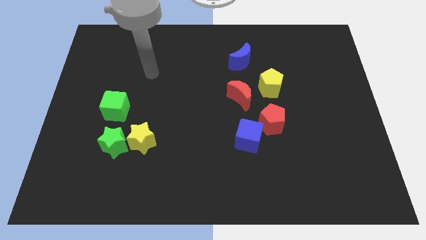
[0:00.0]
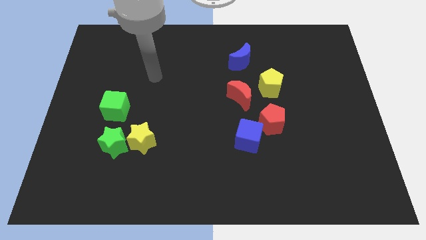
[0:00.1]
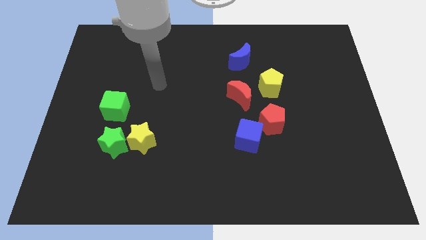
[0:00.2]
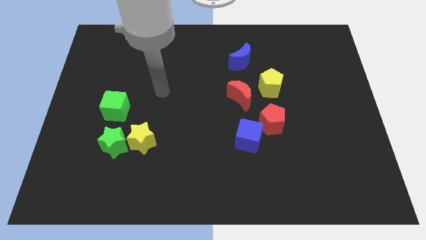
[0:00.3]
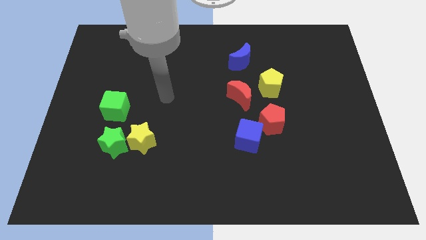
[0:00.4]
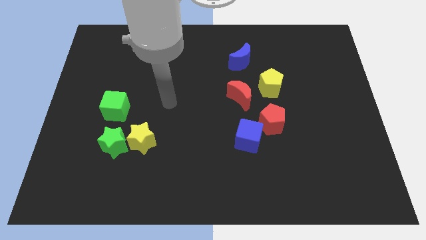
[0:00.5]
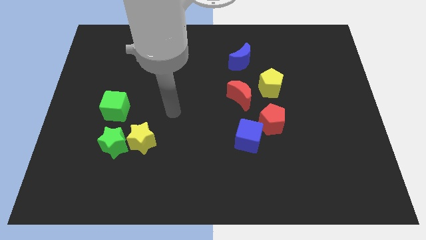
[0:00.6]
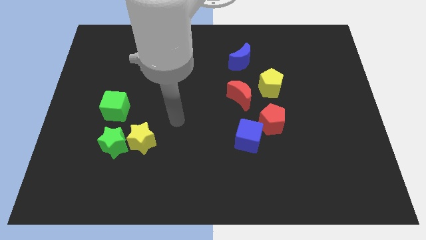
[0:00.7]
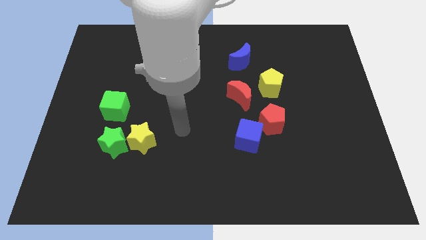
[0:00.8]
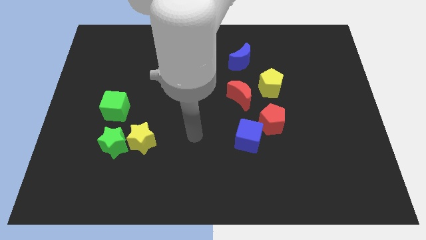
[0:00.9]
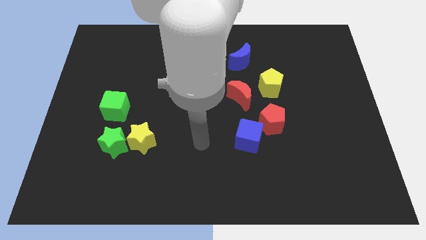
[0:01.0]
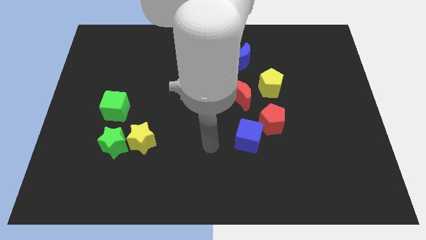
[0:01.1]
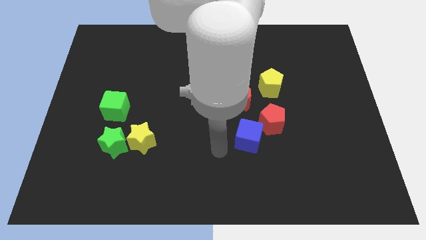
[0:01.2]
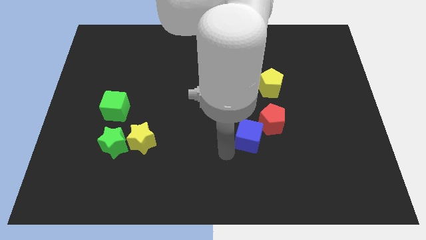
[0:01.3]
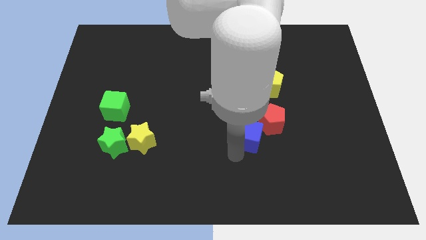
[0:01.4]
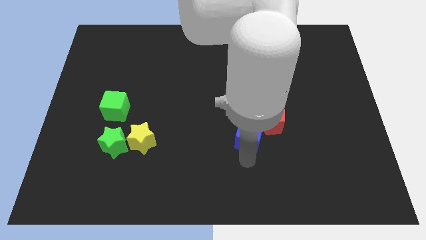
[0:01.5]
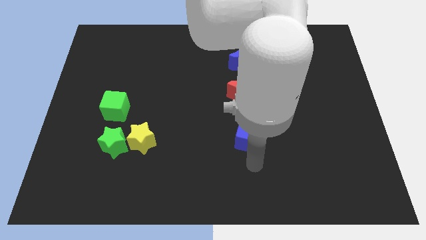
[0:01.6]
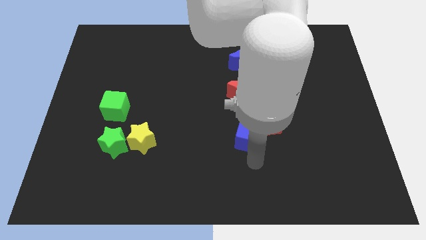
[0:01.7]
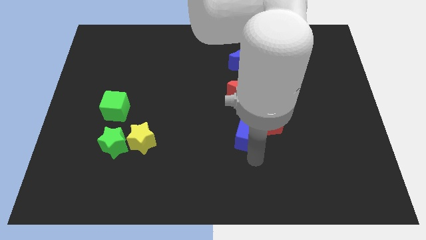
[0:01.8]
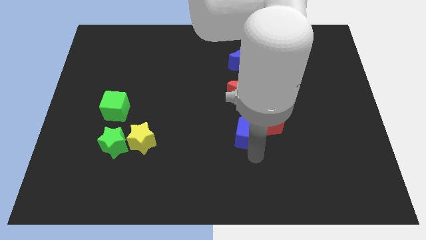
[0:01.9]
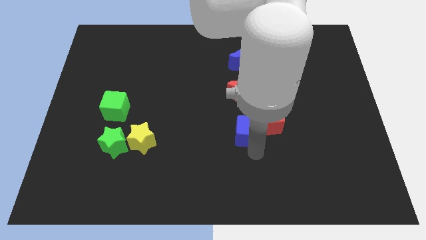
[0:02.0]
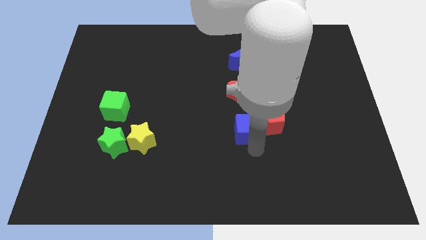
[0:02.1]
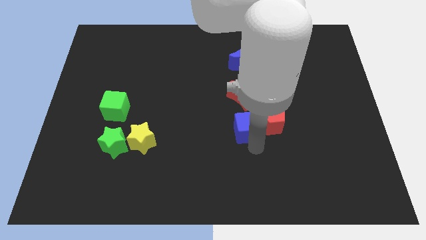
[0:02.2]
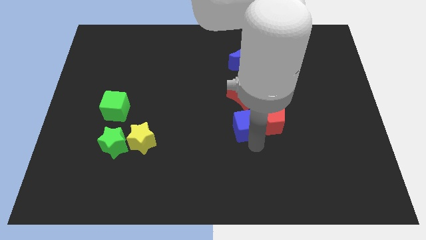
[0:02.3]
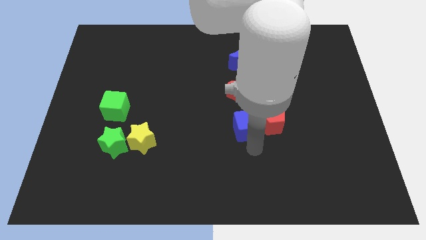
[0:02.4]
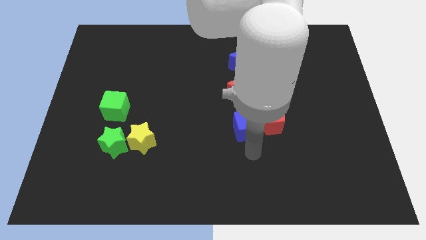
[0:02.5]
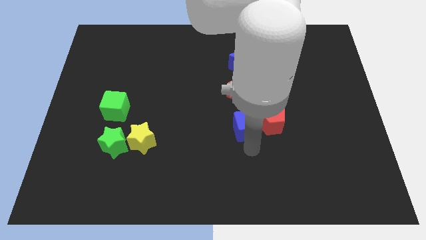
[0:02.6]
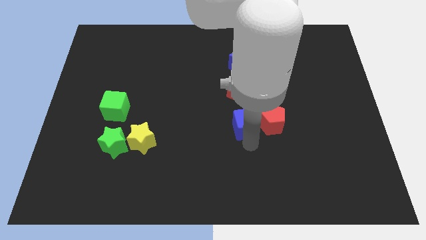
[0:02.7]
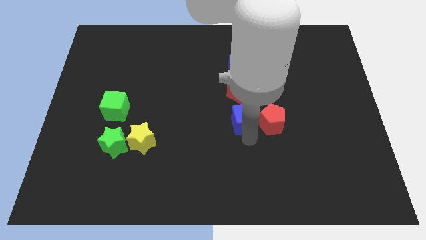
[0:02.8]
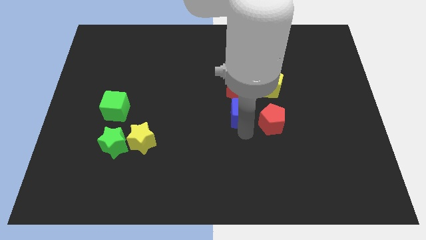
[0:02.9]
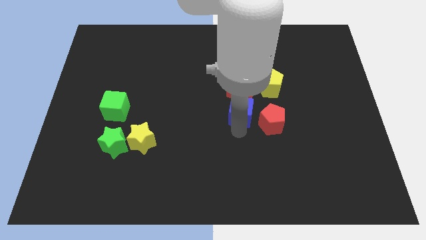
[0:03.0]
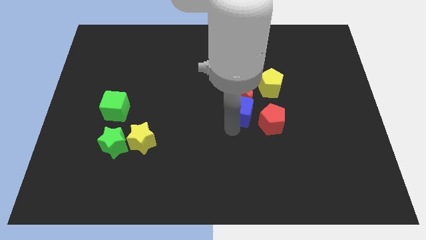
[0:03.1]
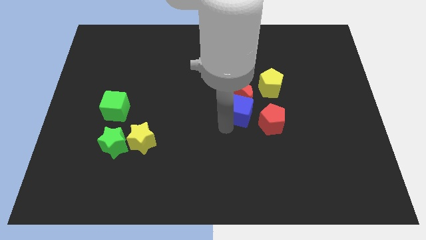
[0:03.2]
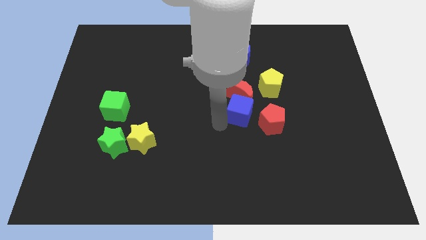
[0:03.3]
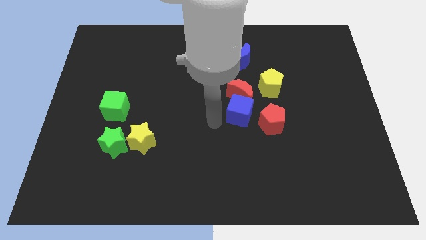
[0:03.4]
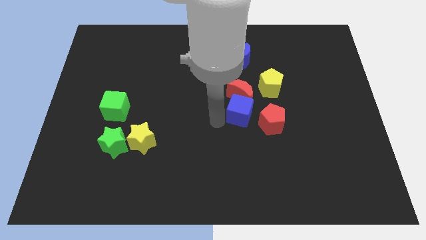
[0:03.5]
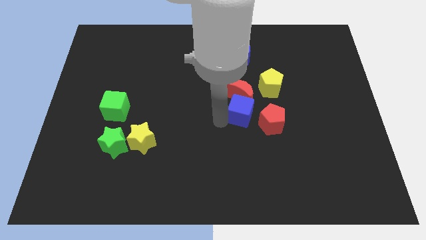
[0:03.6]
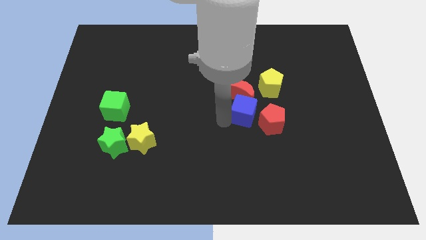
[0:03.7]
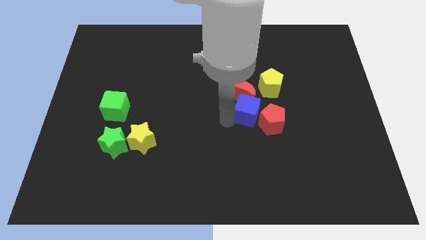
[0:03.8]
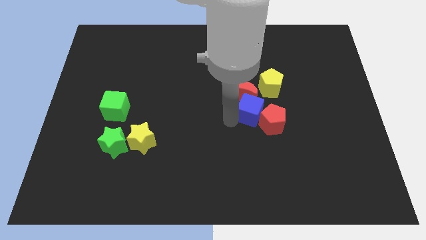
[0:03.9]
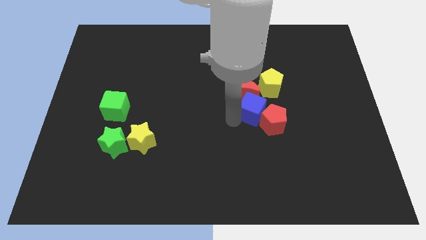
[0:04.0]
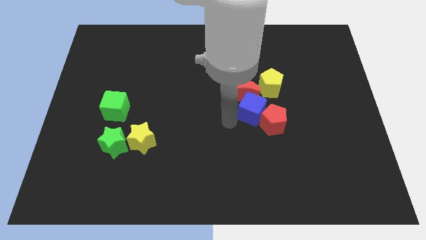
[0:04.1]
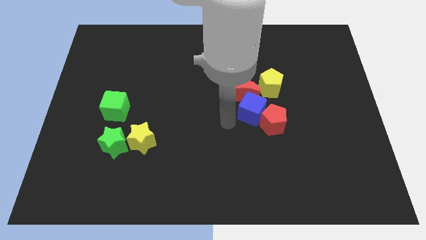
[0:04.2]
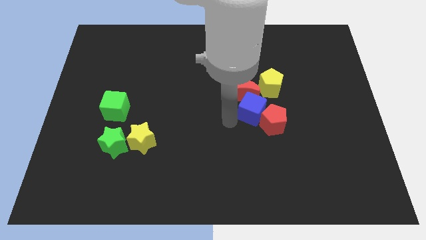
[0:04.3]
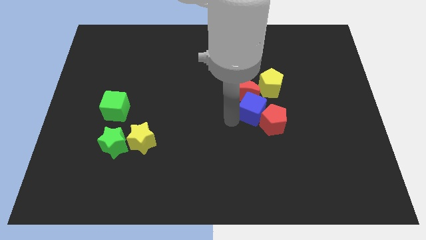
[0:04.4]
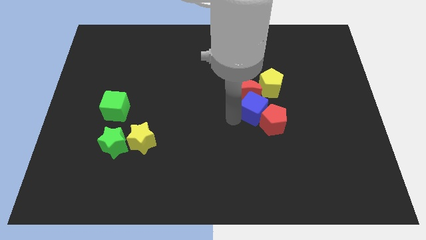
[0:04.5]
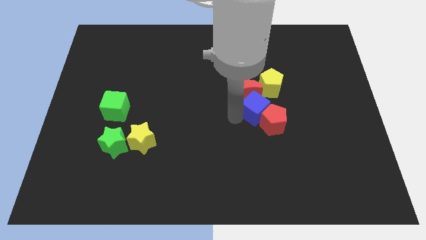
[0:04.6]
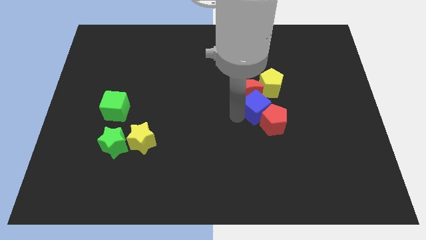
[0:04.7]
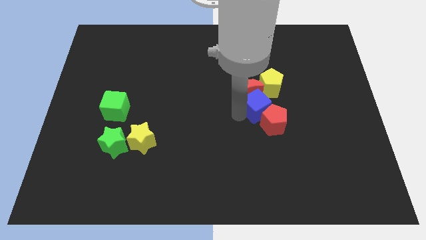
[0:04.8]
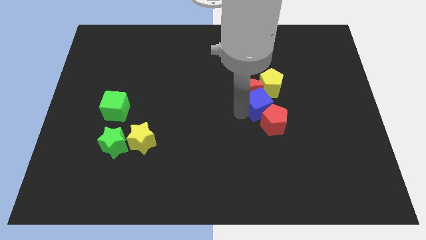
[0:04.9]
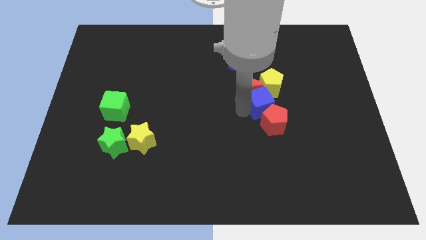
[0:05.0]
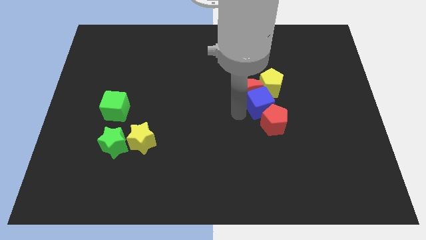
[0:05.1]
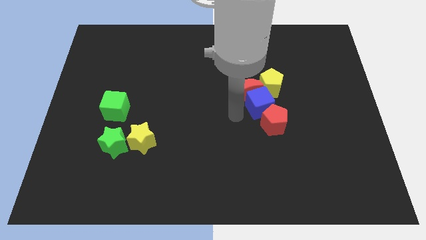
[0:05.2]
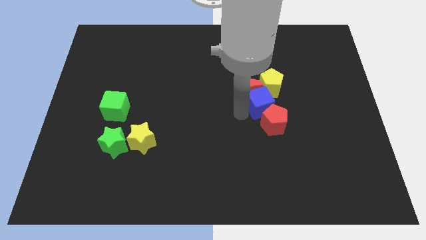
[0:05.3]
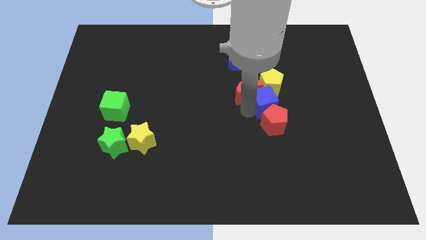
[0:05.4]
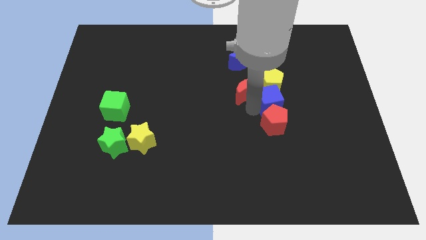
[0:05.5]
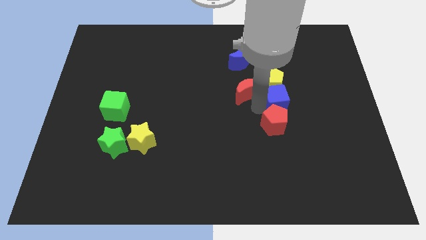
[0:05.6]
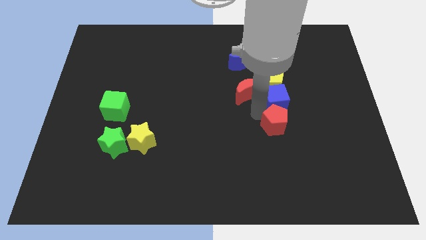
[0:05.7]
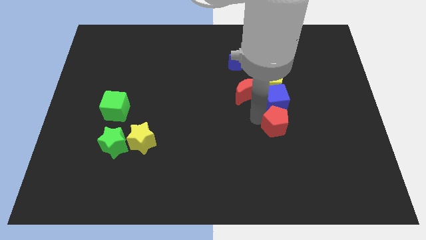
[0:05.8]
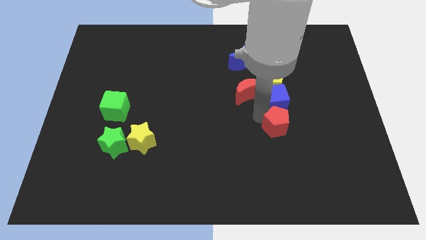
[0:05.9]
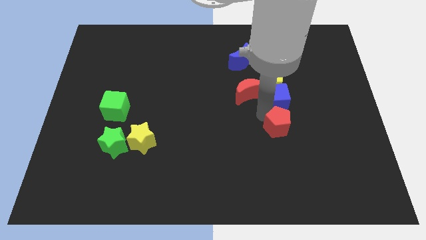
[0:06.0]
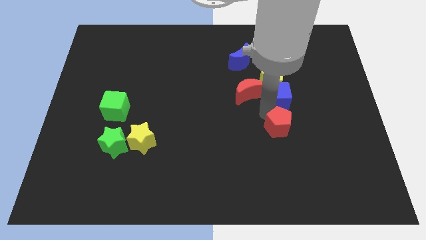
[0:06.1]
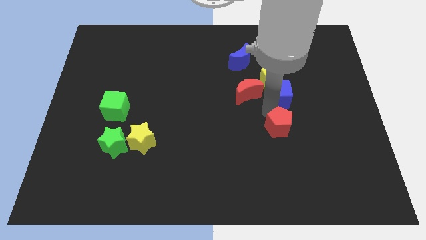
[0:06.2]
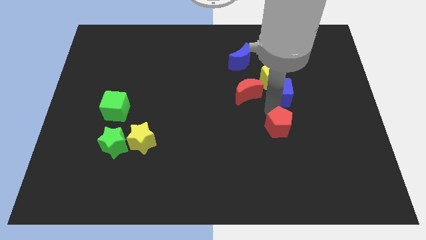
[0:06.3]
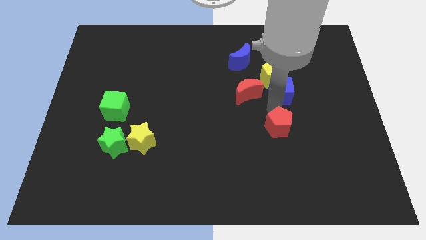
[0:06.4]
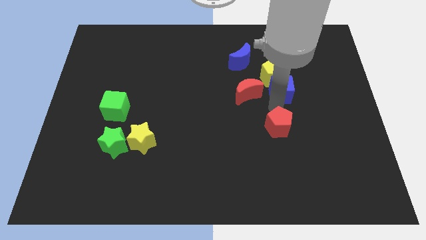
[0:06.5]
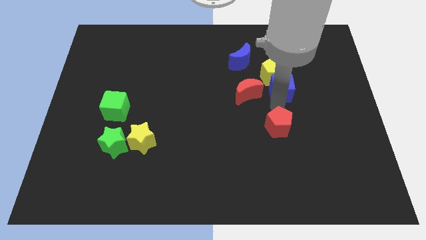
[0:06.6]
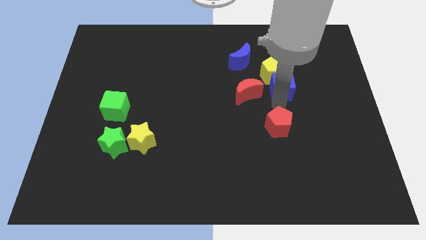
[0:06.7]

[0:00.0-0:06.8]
push the blue cube to the top right of the red moon
